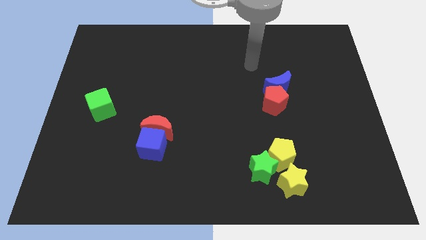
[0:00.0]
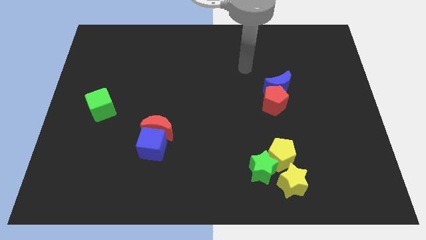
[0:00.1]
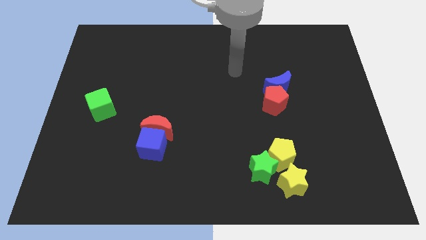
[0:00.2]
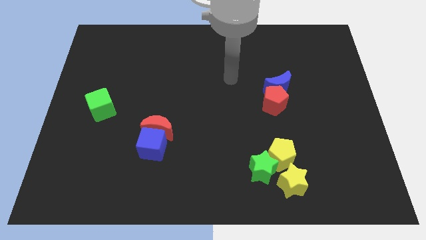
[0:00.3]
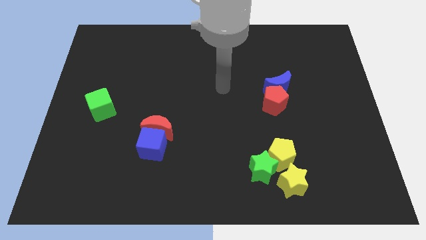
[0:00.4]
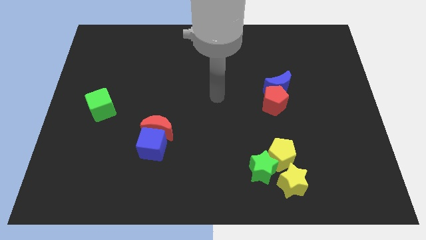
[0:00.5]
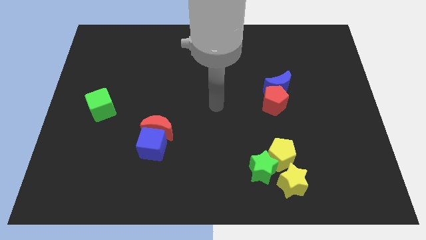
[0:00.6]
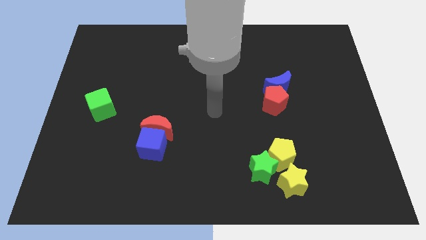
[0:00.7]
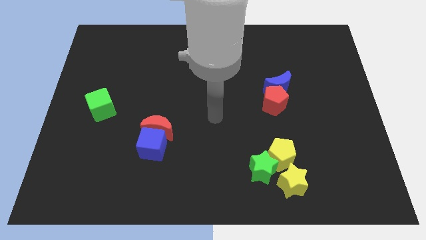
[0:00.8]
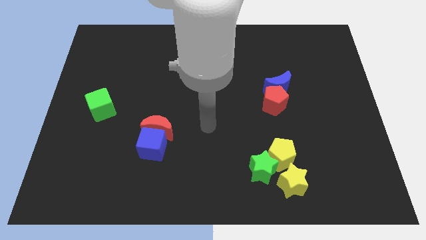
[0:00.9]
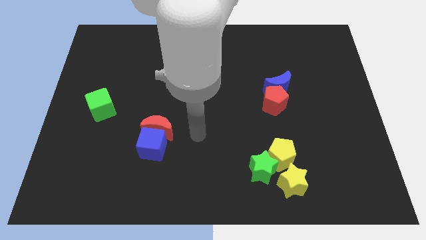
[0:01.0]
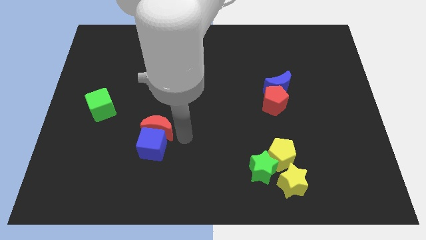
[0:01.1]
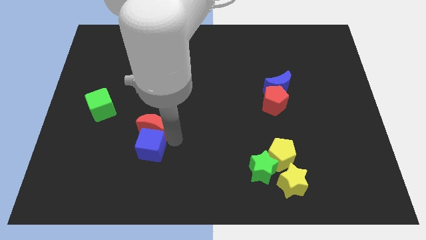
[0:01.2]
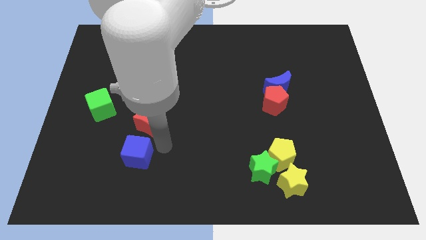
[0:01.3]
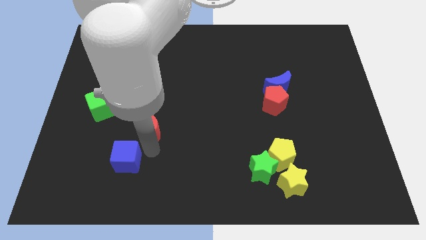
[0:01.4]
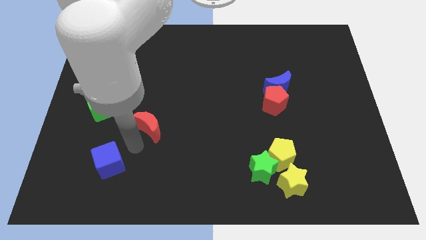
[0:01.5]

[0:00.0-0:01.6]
pull the red moon apart from the blue cube

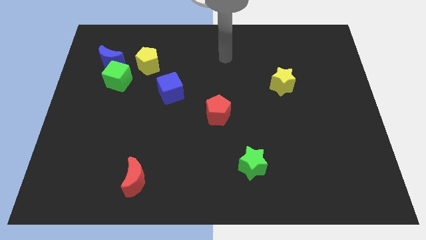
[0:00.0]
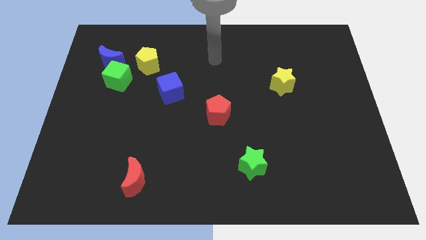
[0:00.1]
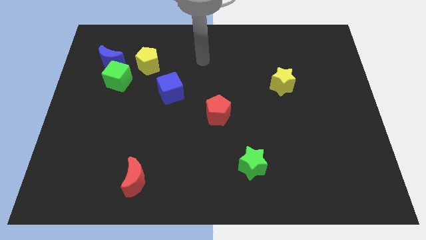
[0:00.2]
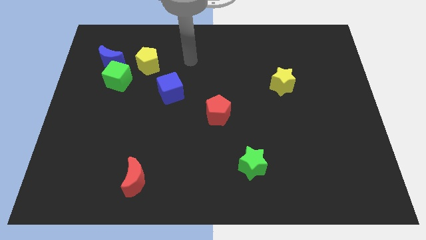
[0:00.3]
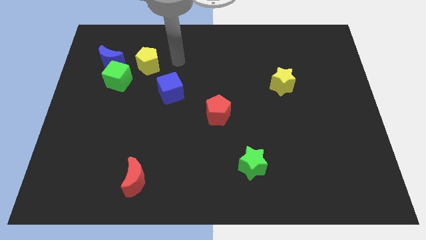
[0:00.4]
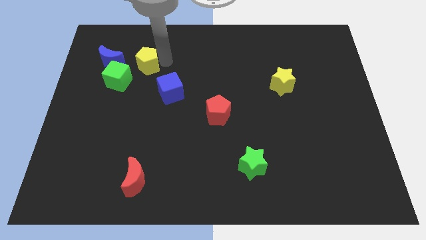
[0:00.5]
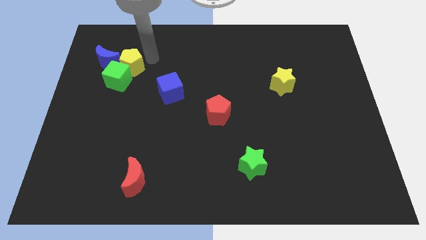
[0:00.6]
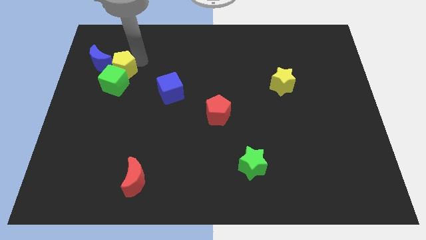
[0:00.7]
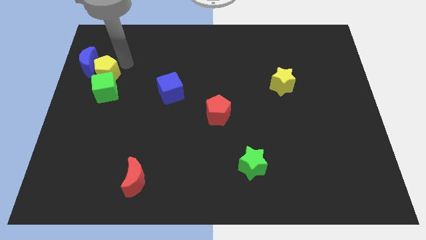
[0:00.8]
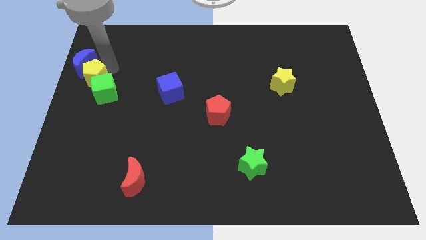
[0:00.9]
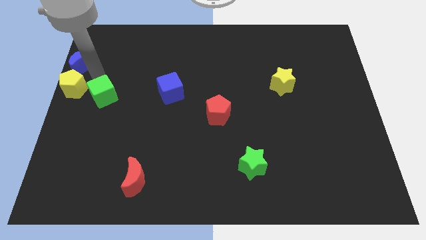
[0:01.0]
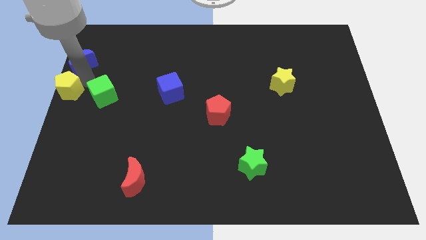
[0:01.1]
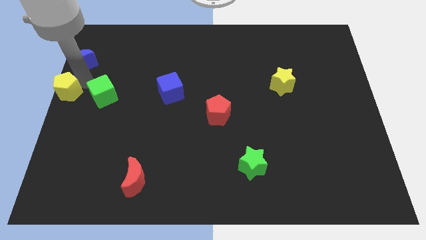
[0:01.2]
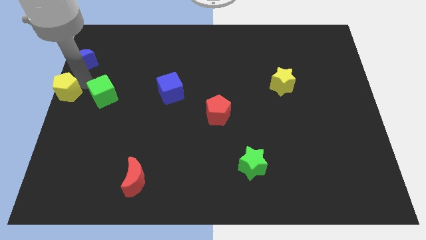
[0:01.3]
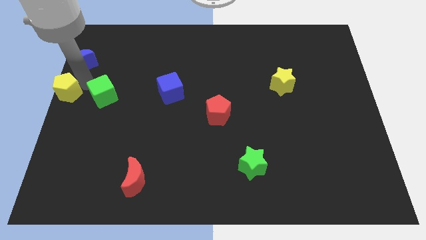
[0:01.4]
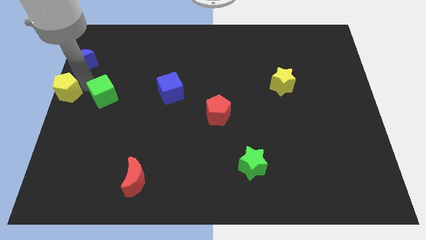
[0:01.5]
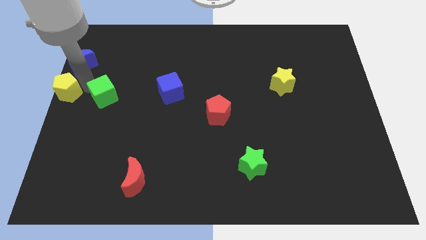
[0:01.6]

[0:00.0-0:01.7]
separate the green cube from the blue moon and yellow pentagon

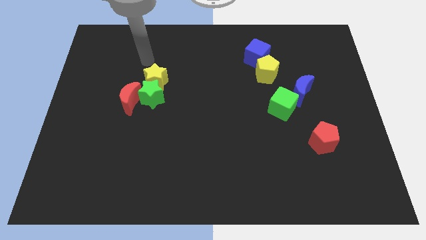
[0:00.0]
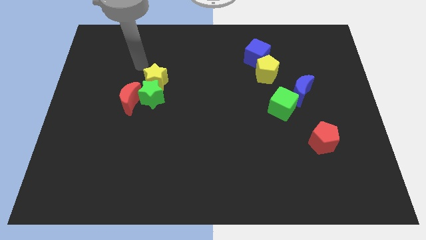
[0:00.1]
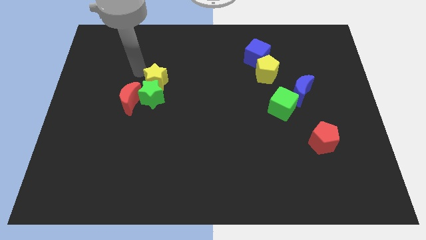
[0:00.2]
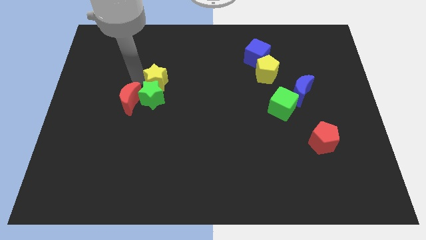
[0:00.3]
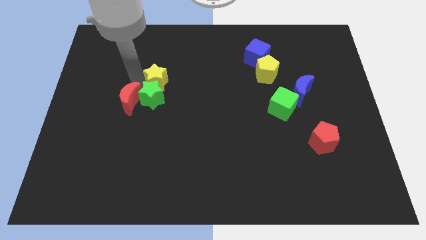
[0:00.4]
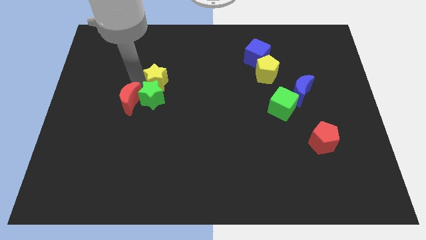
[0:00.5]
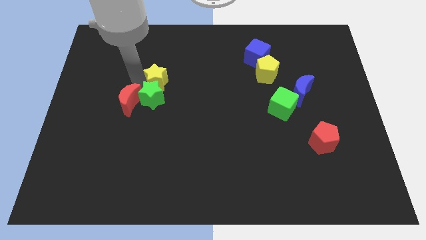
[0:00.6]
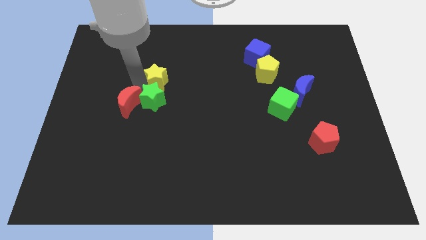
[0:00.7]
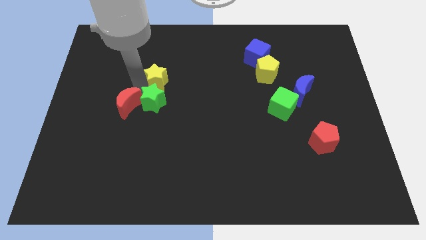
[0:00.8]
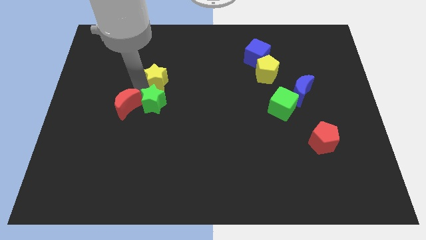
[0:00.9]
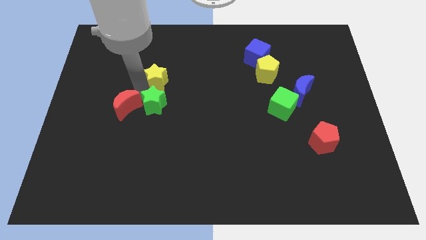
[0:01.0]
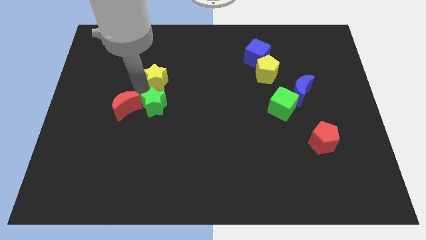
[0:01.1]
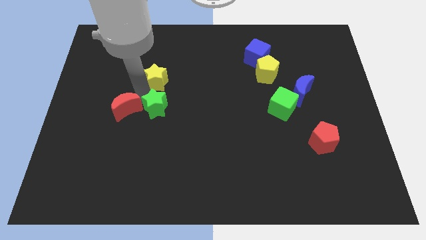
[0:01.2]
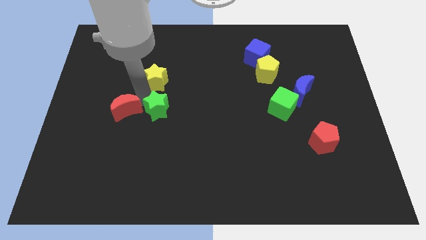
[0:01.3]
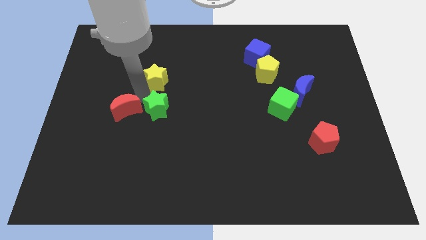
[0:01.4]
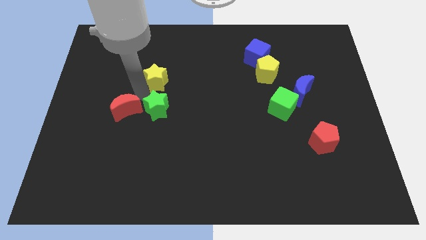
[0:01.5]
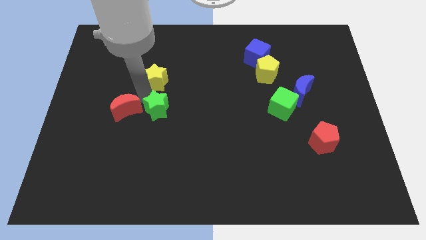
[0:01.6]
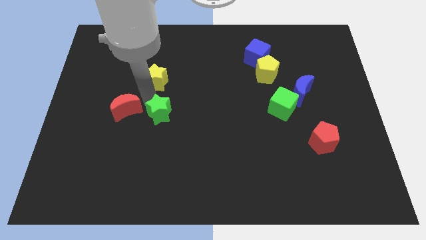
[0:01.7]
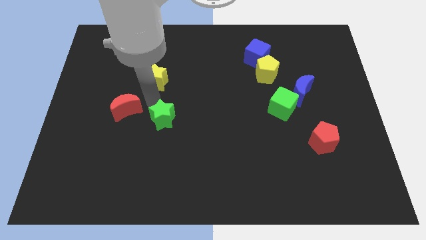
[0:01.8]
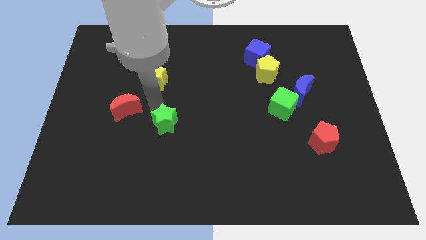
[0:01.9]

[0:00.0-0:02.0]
pull the green star apart from the red moon and yellow star

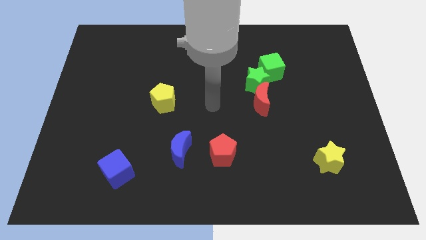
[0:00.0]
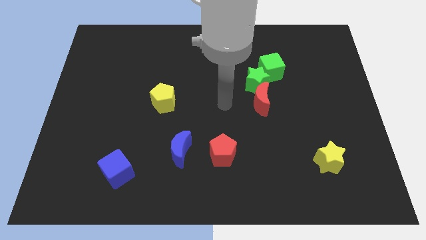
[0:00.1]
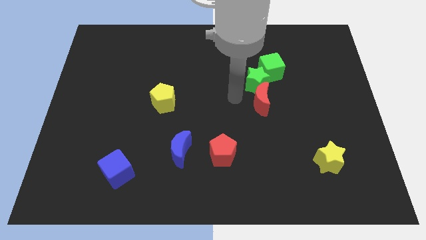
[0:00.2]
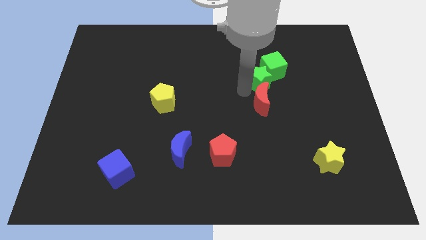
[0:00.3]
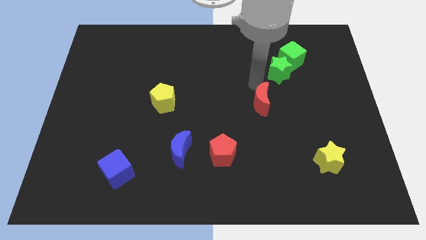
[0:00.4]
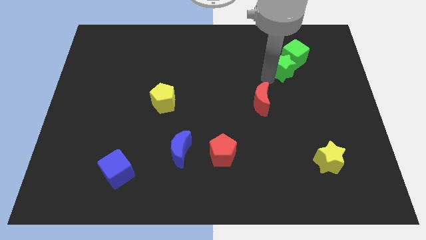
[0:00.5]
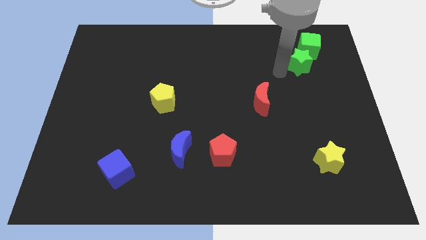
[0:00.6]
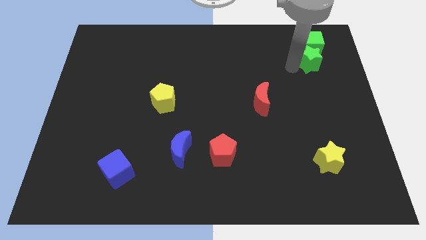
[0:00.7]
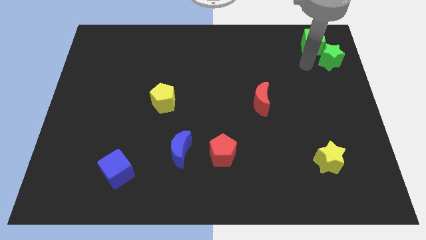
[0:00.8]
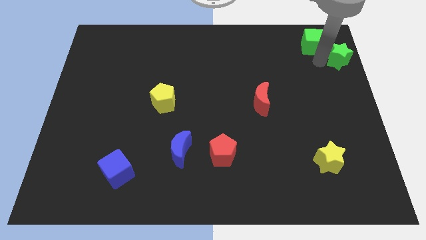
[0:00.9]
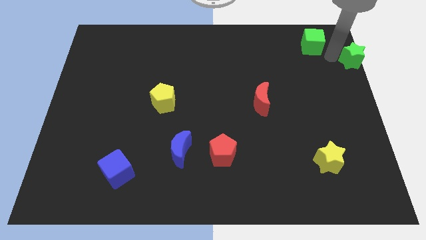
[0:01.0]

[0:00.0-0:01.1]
move the green cube away from the green star

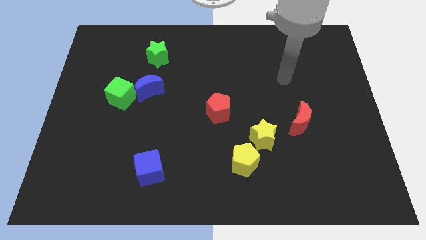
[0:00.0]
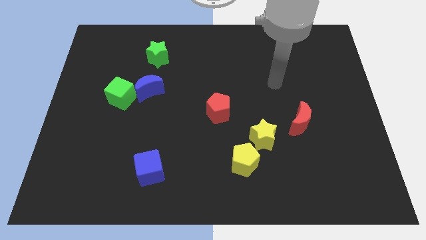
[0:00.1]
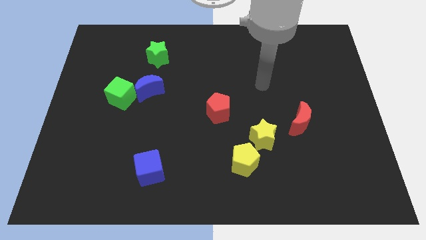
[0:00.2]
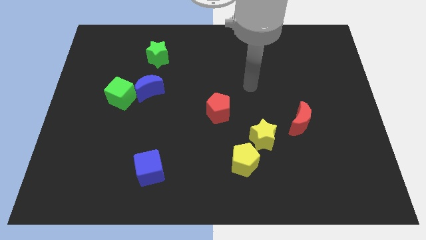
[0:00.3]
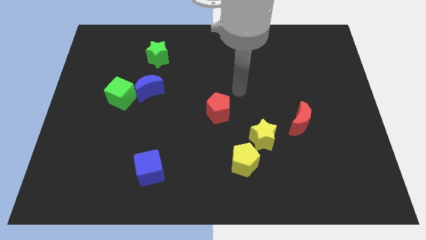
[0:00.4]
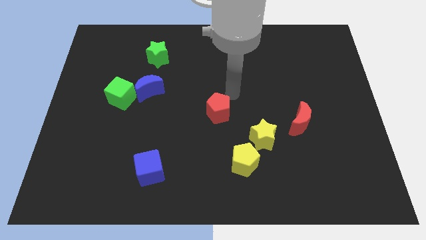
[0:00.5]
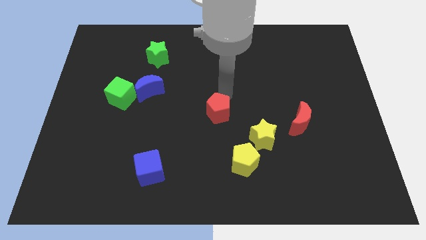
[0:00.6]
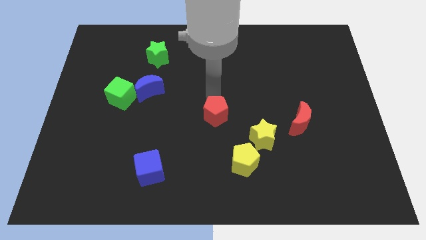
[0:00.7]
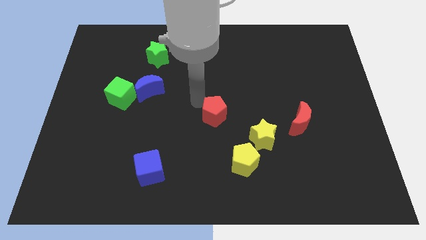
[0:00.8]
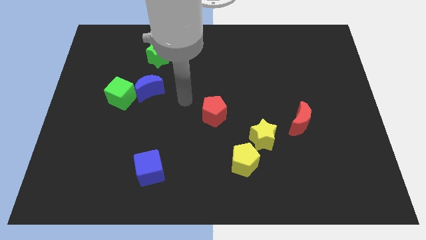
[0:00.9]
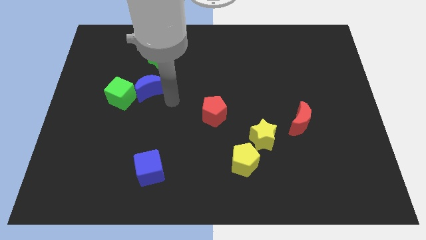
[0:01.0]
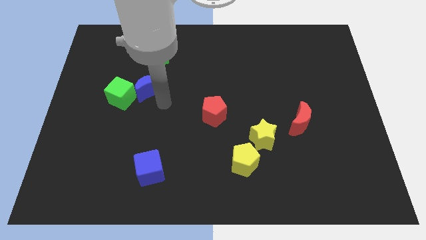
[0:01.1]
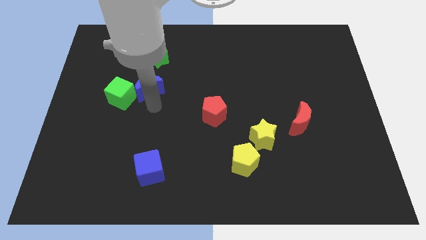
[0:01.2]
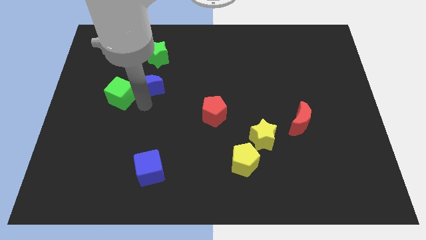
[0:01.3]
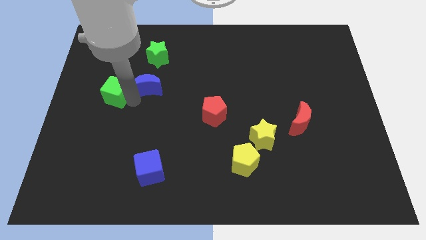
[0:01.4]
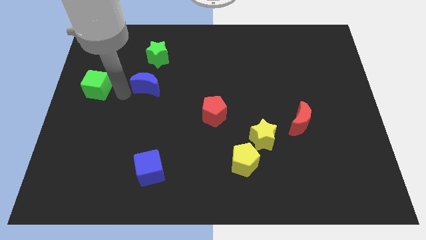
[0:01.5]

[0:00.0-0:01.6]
move the blue moon away from the green cube

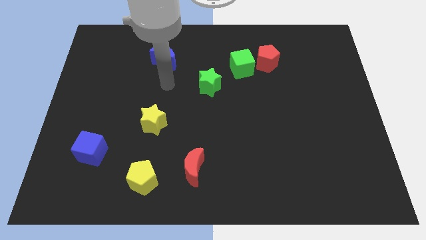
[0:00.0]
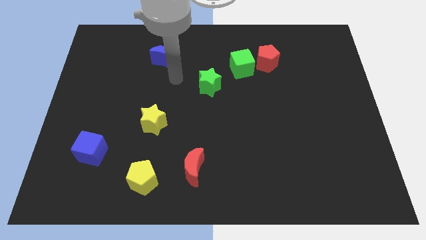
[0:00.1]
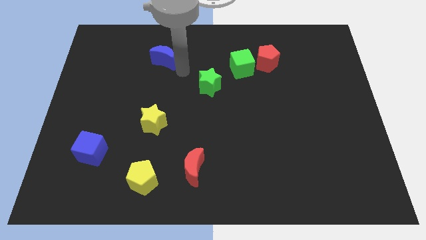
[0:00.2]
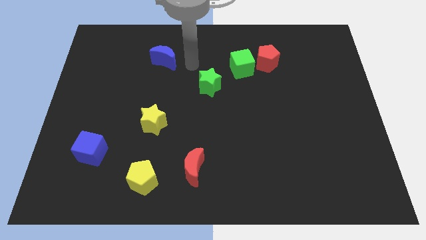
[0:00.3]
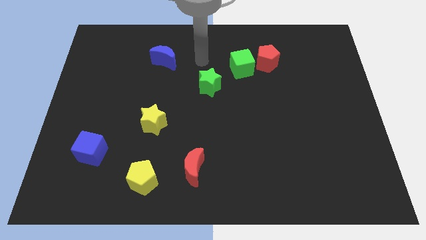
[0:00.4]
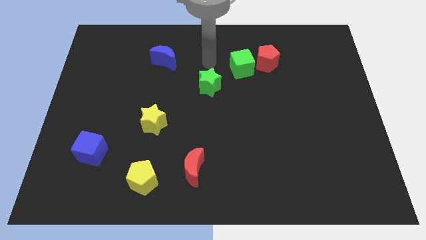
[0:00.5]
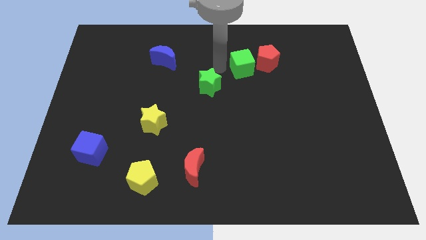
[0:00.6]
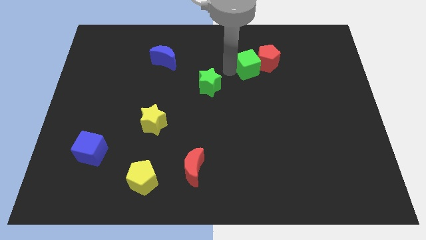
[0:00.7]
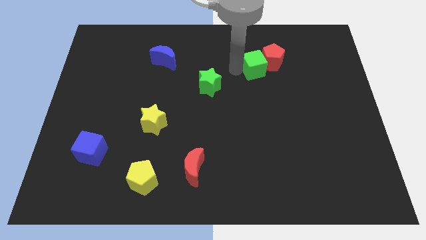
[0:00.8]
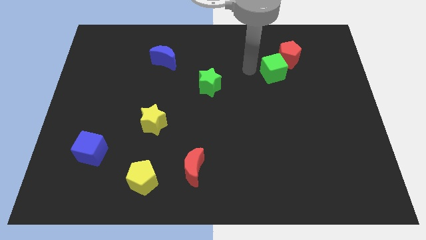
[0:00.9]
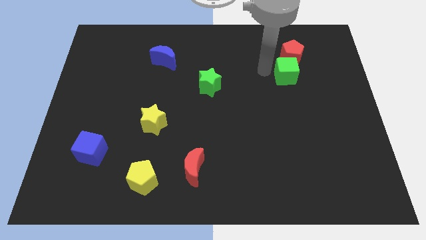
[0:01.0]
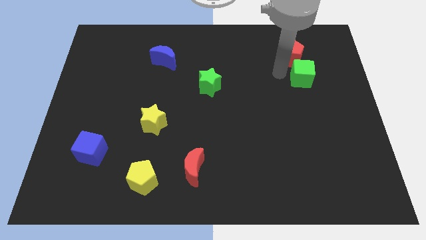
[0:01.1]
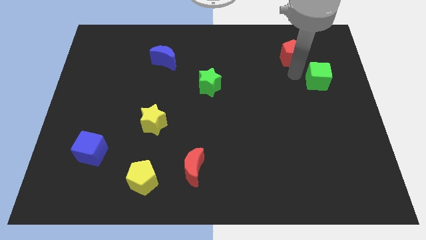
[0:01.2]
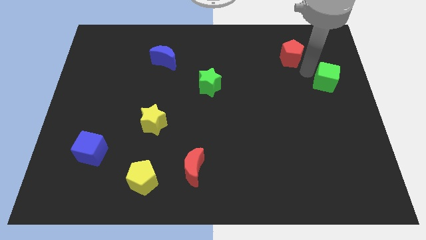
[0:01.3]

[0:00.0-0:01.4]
separate the red pentagon from the green cube

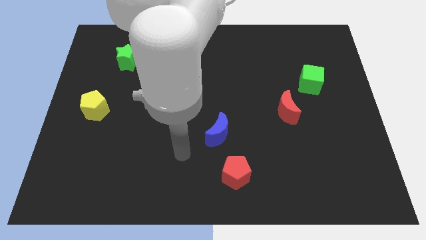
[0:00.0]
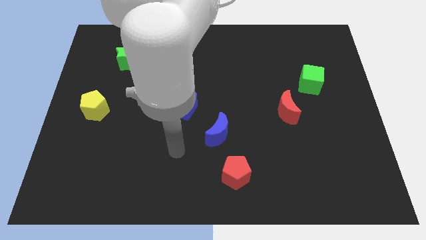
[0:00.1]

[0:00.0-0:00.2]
pull the blue cube apart from the yellow star
